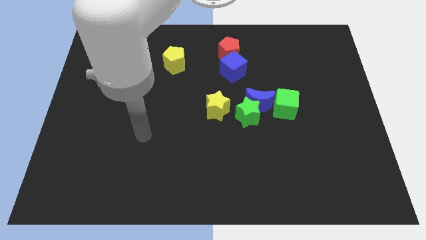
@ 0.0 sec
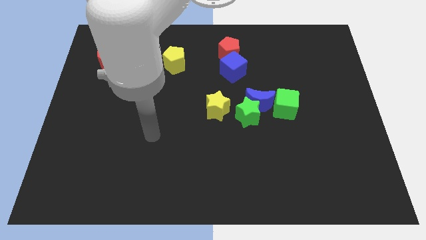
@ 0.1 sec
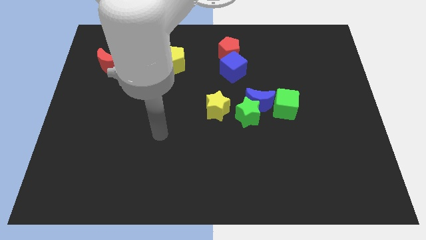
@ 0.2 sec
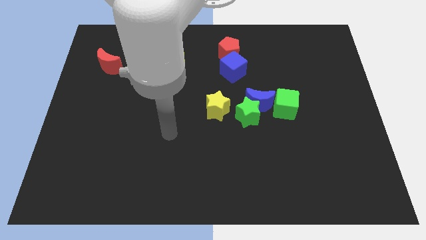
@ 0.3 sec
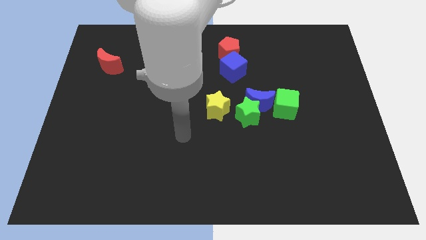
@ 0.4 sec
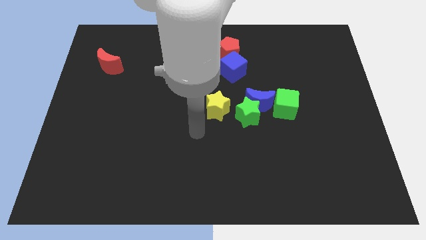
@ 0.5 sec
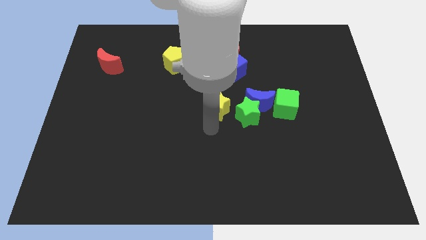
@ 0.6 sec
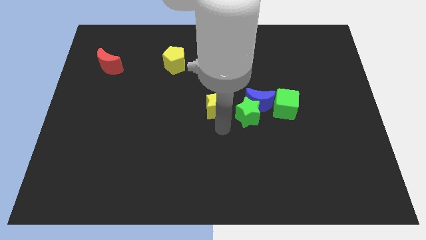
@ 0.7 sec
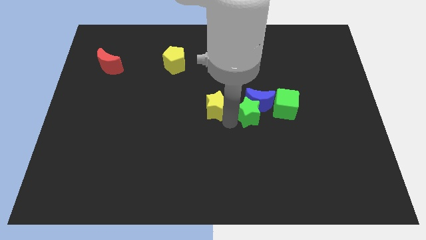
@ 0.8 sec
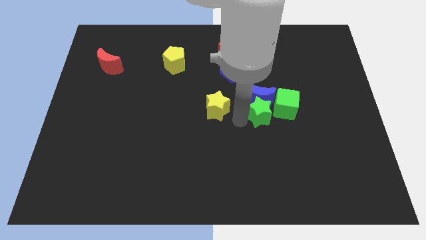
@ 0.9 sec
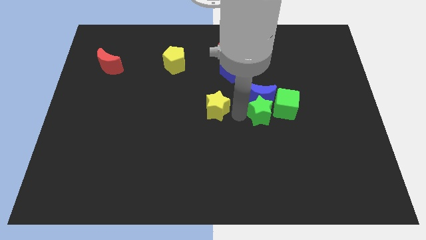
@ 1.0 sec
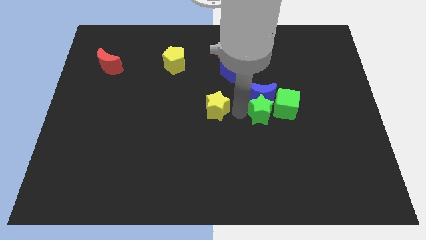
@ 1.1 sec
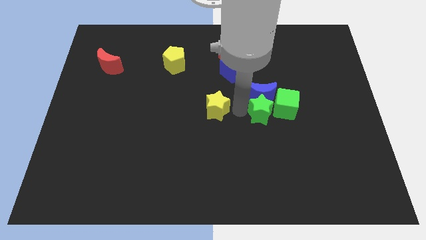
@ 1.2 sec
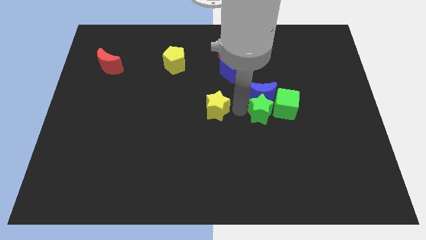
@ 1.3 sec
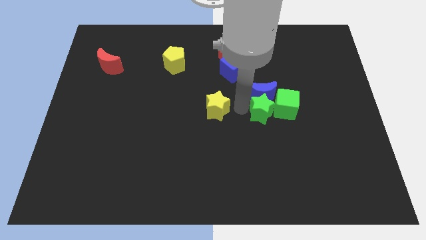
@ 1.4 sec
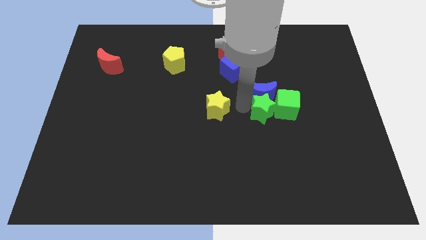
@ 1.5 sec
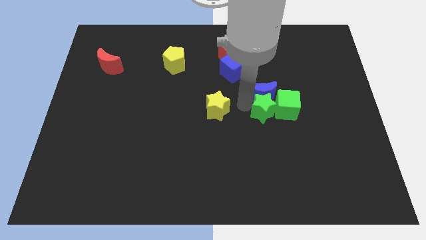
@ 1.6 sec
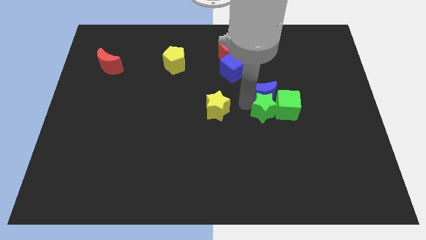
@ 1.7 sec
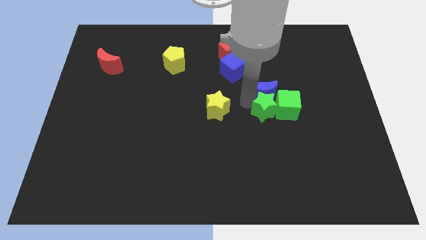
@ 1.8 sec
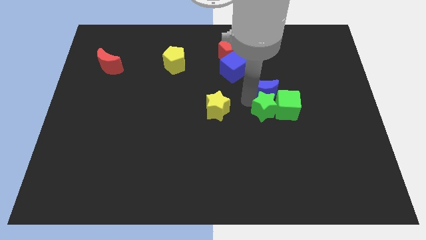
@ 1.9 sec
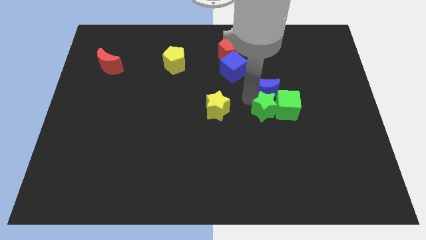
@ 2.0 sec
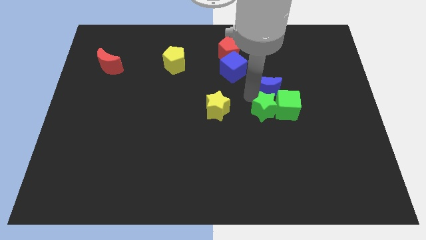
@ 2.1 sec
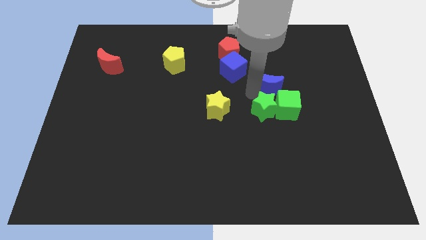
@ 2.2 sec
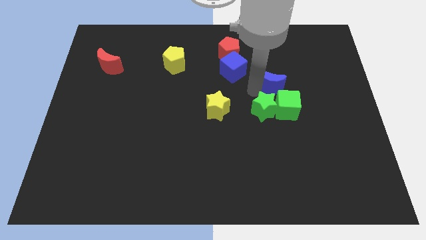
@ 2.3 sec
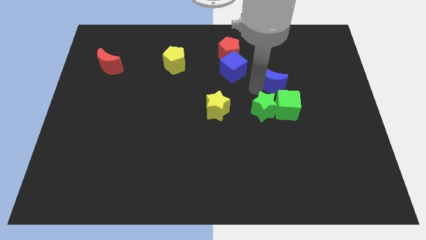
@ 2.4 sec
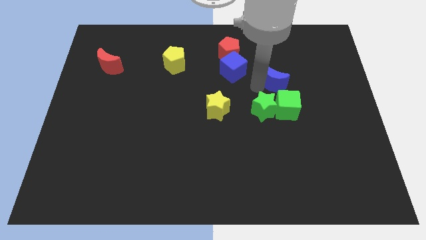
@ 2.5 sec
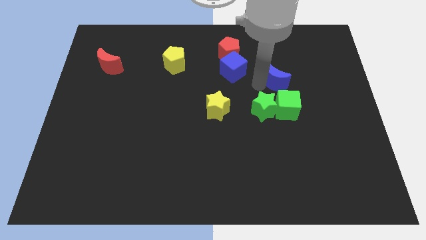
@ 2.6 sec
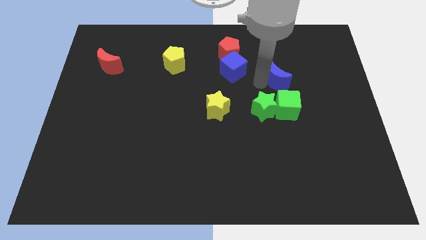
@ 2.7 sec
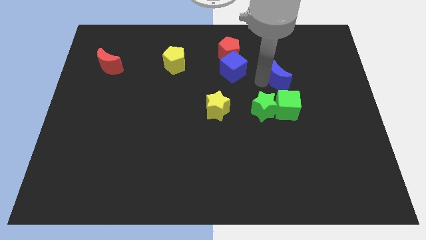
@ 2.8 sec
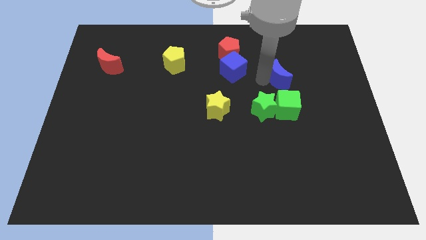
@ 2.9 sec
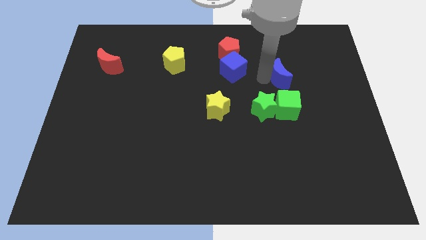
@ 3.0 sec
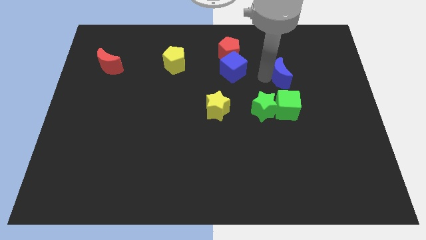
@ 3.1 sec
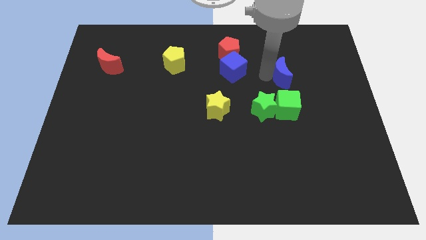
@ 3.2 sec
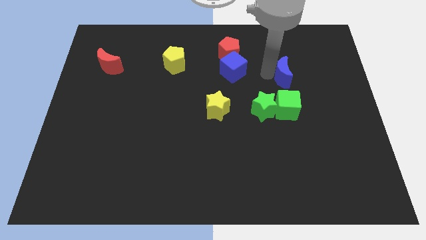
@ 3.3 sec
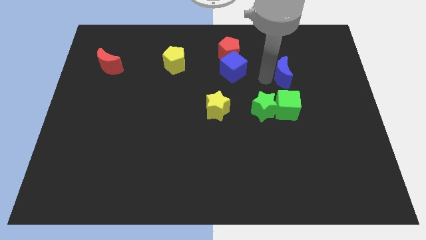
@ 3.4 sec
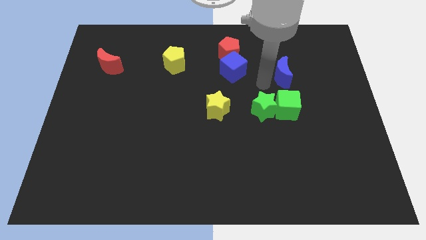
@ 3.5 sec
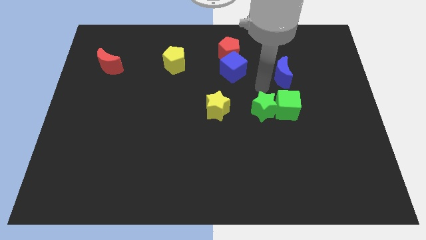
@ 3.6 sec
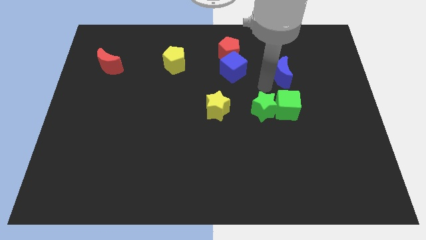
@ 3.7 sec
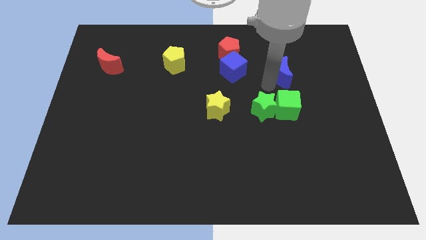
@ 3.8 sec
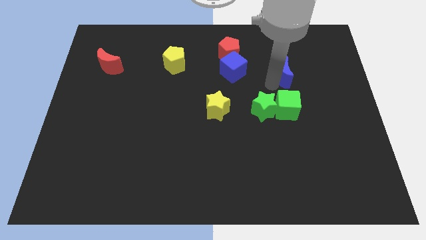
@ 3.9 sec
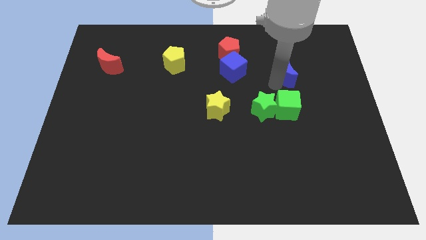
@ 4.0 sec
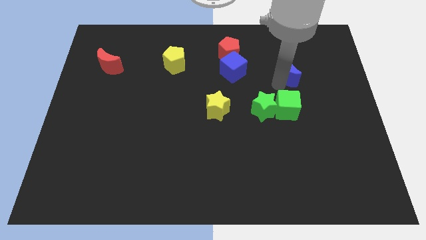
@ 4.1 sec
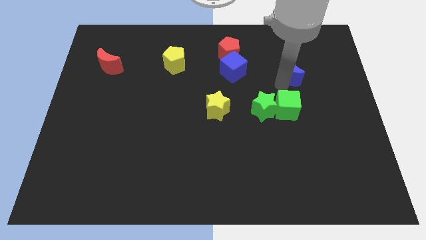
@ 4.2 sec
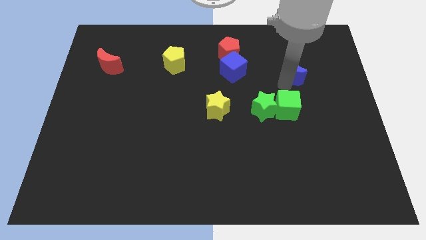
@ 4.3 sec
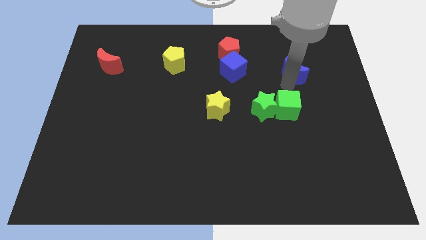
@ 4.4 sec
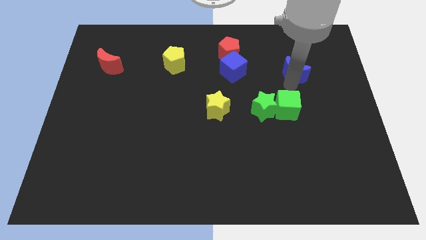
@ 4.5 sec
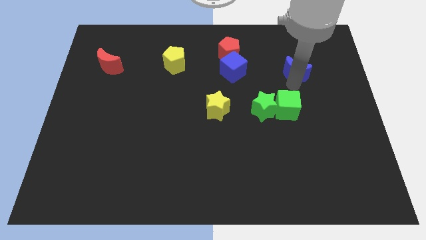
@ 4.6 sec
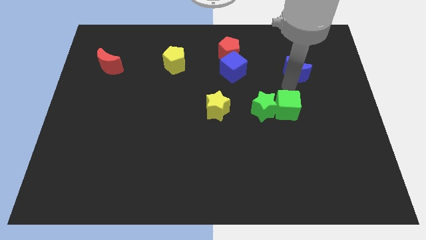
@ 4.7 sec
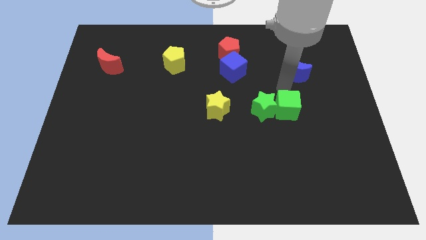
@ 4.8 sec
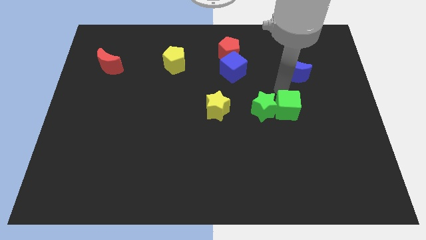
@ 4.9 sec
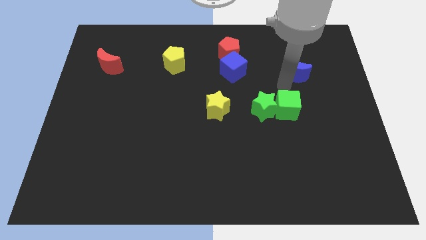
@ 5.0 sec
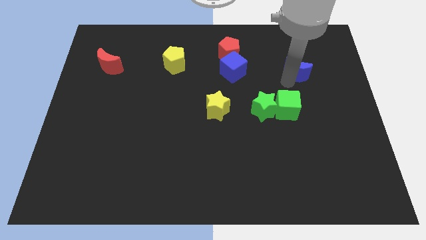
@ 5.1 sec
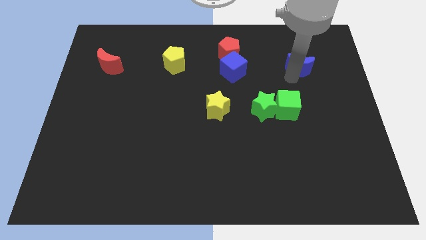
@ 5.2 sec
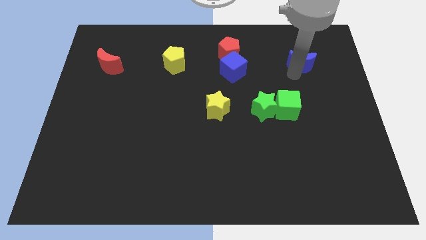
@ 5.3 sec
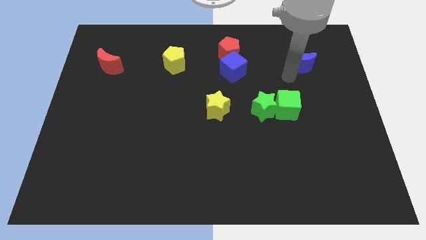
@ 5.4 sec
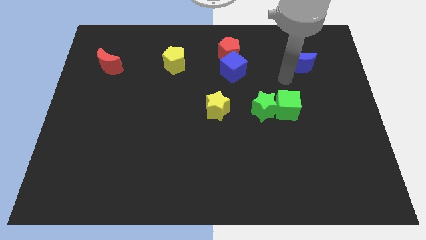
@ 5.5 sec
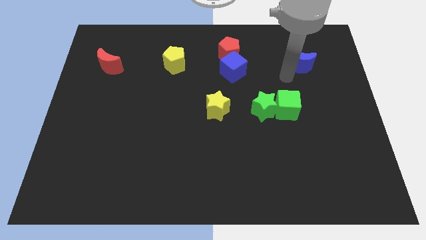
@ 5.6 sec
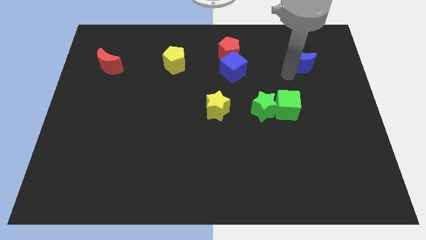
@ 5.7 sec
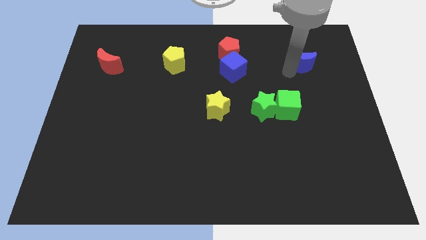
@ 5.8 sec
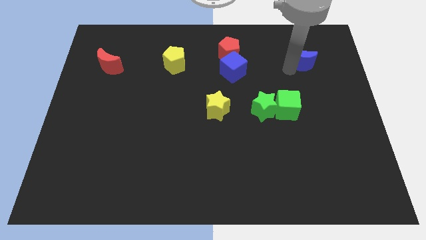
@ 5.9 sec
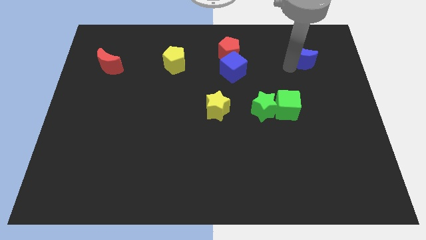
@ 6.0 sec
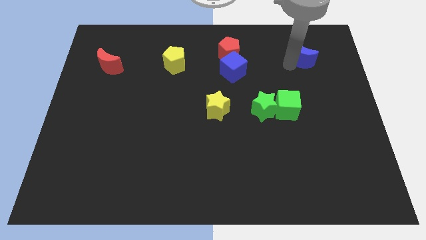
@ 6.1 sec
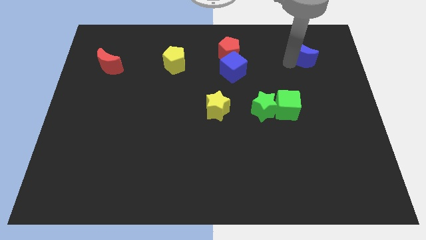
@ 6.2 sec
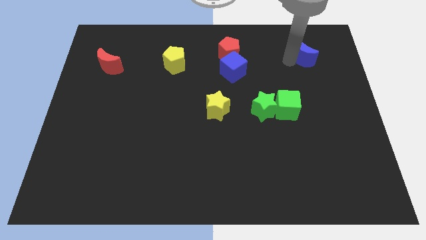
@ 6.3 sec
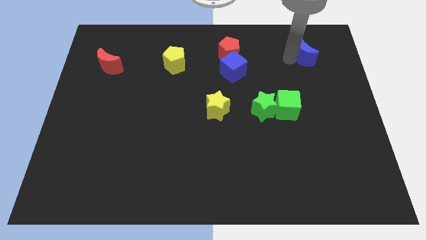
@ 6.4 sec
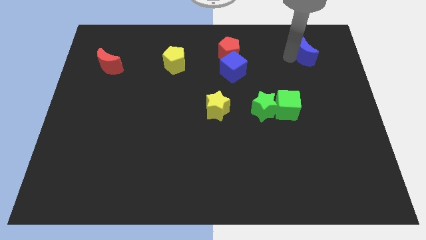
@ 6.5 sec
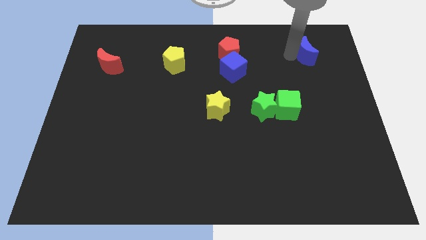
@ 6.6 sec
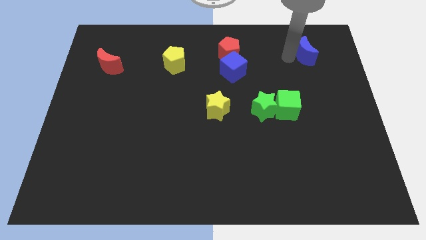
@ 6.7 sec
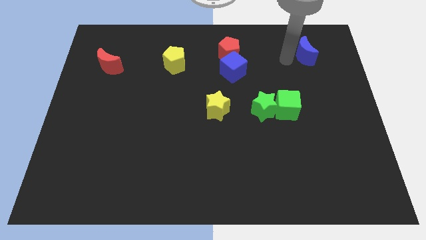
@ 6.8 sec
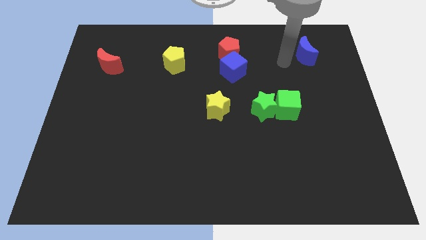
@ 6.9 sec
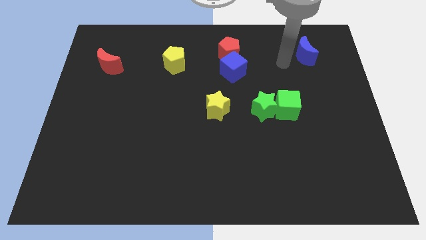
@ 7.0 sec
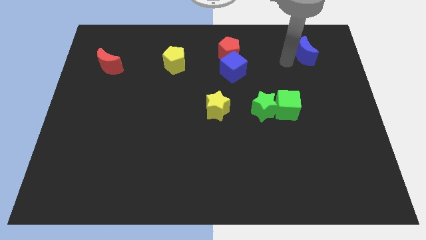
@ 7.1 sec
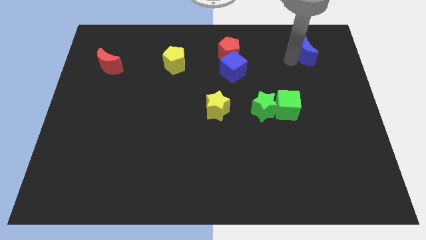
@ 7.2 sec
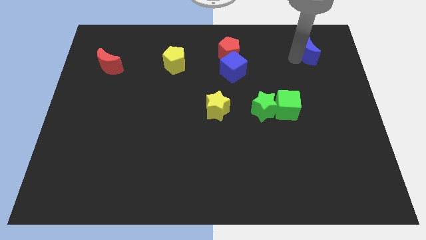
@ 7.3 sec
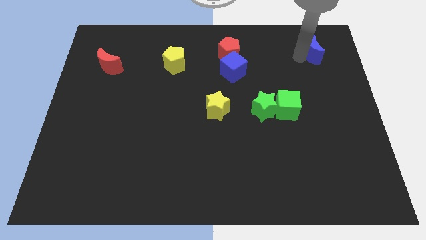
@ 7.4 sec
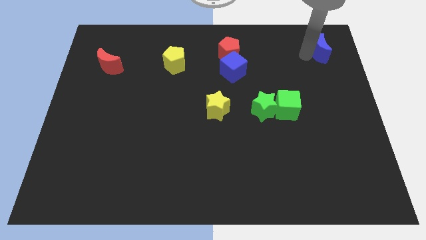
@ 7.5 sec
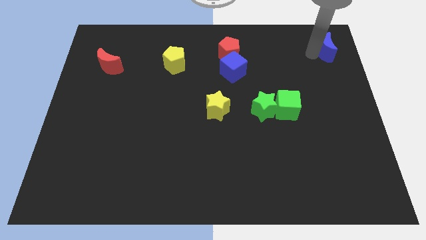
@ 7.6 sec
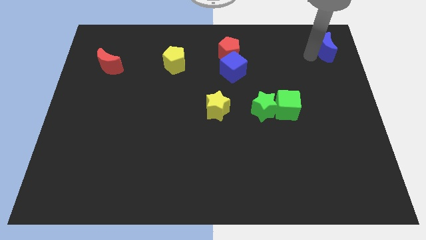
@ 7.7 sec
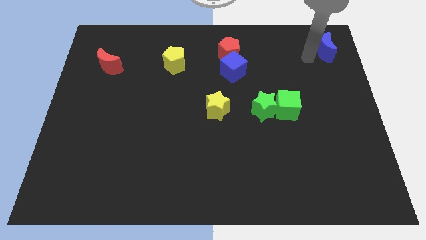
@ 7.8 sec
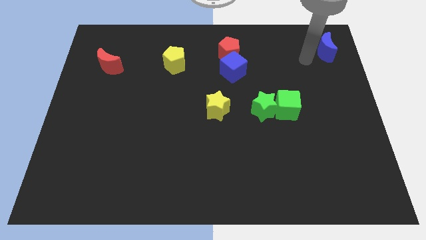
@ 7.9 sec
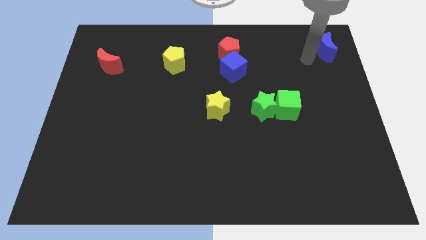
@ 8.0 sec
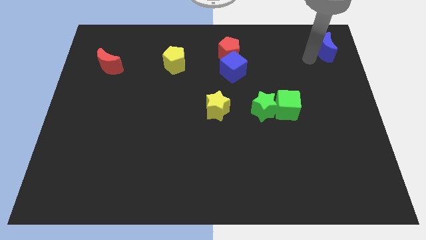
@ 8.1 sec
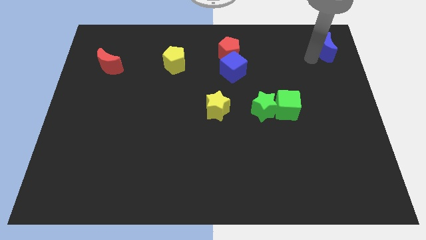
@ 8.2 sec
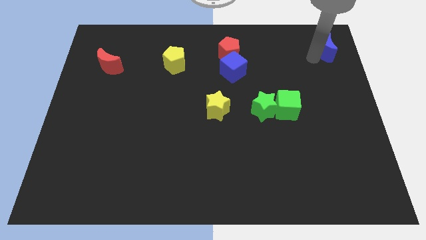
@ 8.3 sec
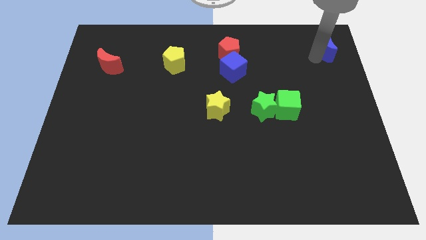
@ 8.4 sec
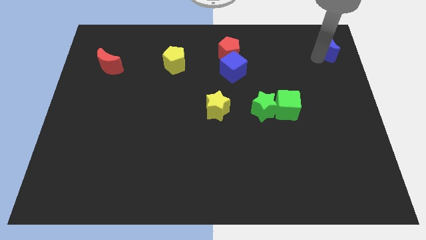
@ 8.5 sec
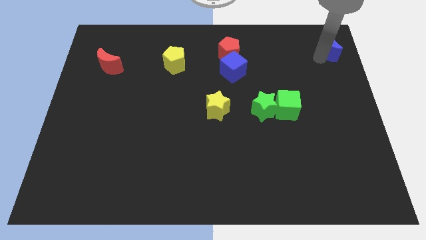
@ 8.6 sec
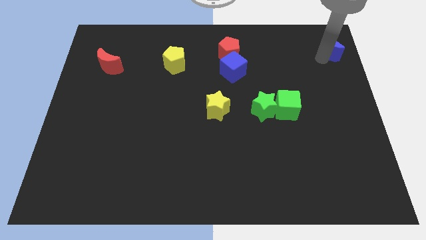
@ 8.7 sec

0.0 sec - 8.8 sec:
put the blue moon to the top right
